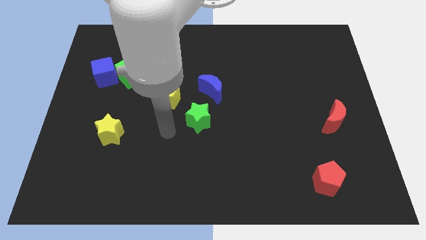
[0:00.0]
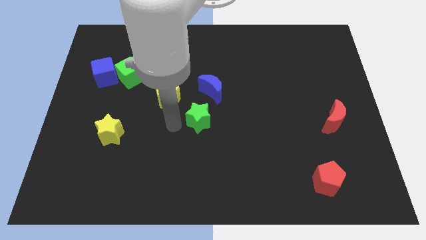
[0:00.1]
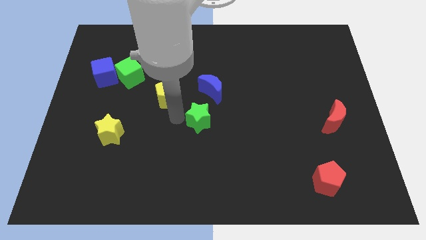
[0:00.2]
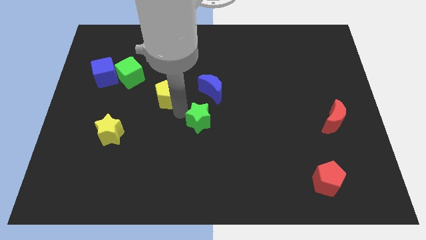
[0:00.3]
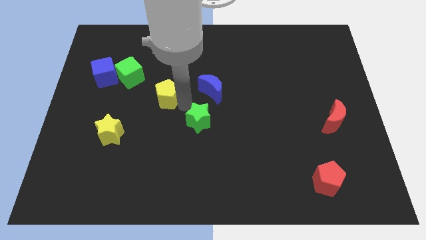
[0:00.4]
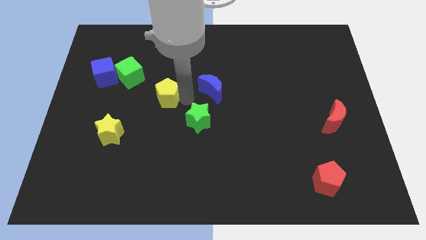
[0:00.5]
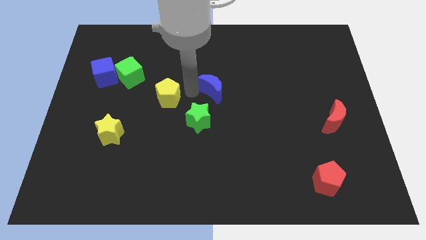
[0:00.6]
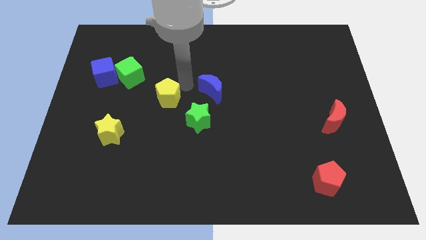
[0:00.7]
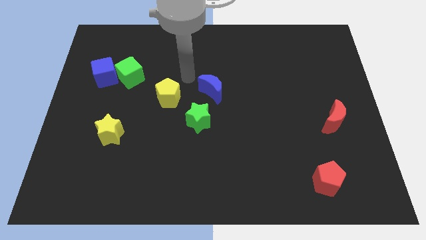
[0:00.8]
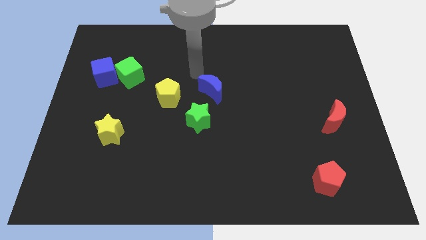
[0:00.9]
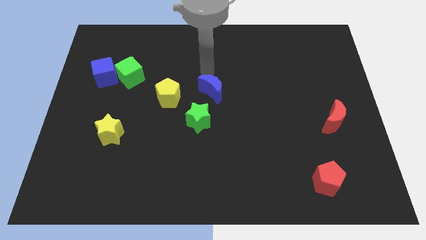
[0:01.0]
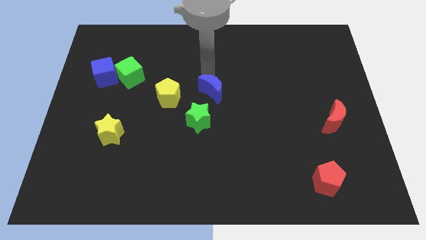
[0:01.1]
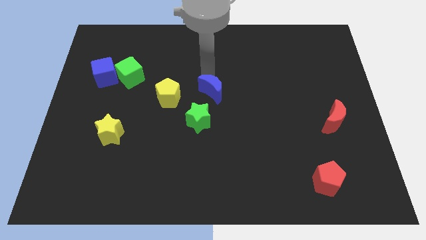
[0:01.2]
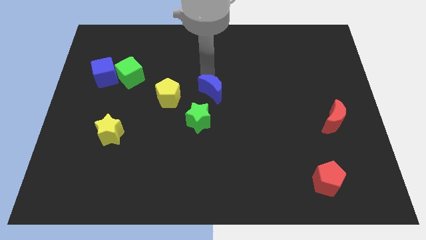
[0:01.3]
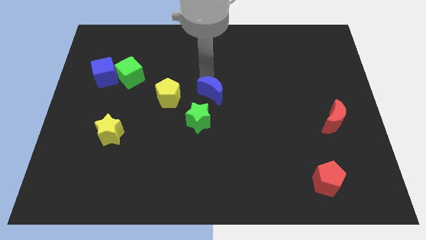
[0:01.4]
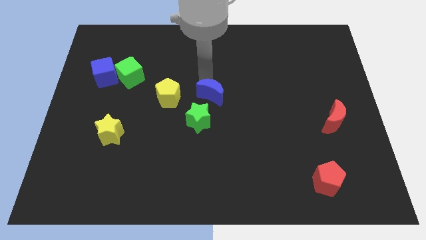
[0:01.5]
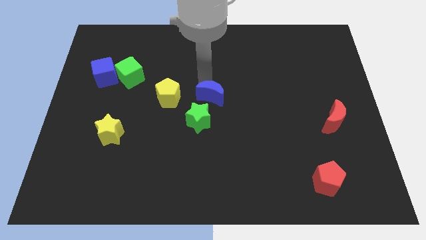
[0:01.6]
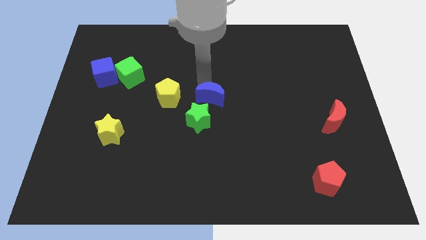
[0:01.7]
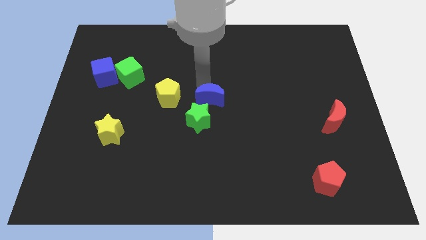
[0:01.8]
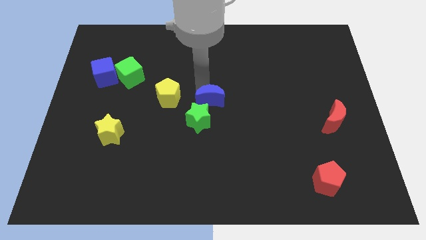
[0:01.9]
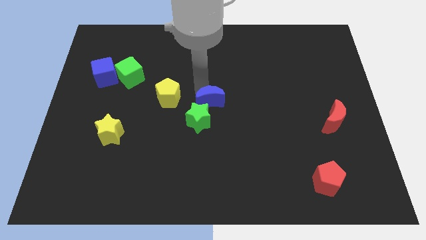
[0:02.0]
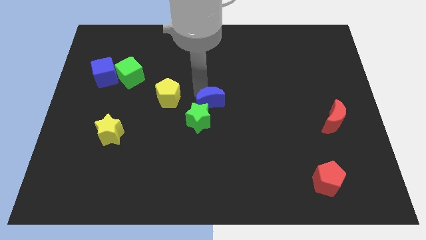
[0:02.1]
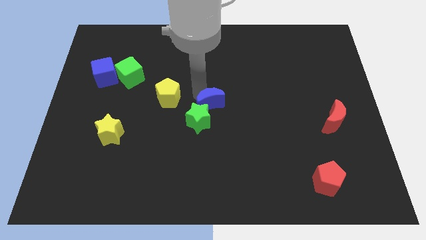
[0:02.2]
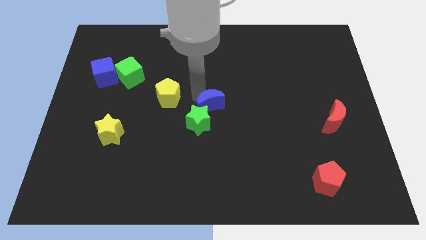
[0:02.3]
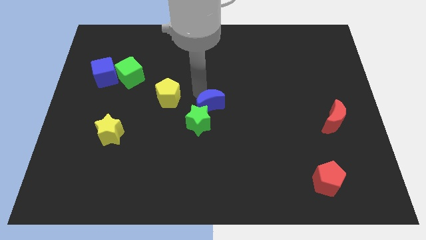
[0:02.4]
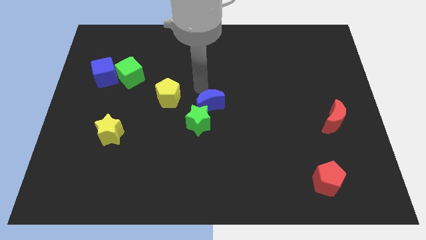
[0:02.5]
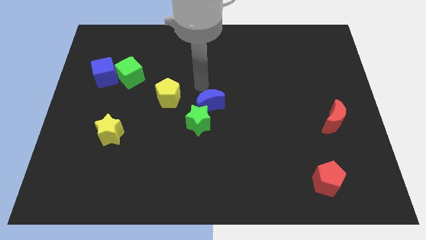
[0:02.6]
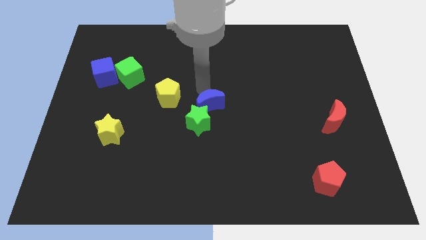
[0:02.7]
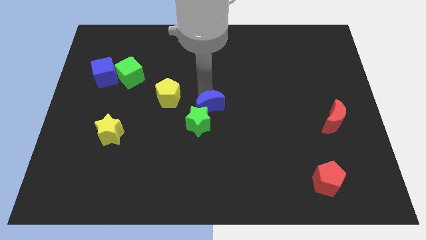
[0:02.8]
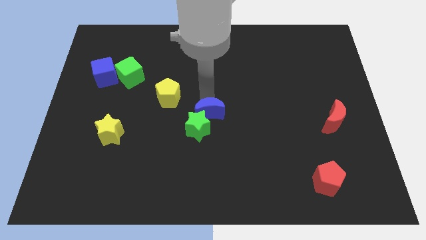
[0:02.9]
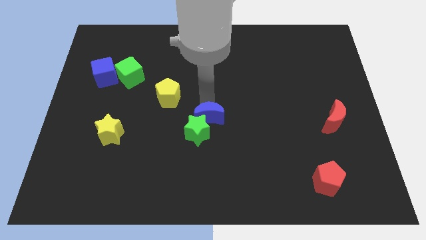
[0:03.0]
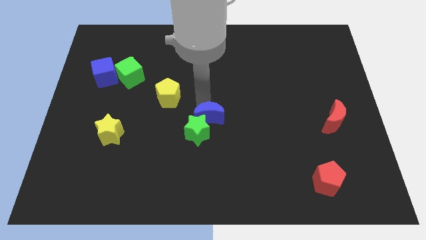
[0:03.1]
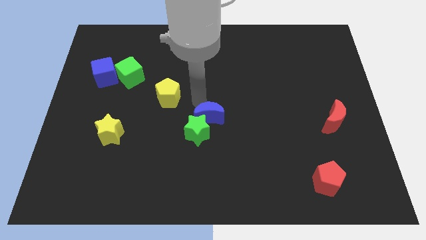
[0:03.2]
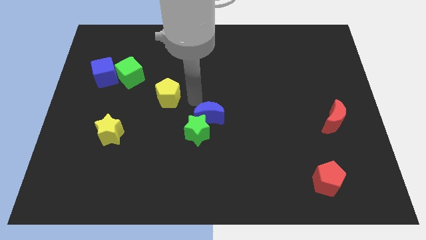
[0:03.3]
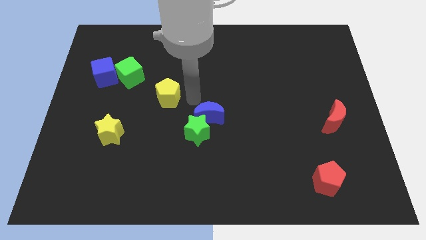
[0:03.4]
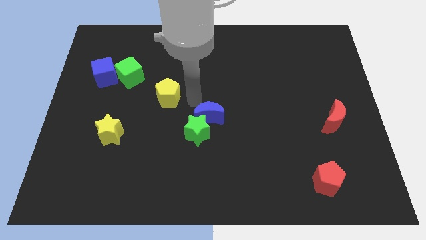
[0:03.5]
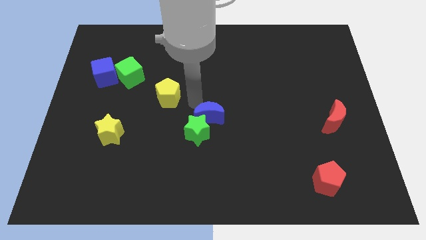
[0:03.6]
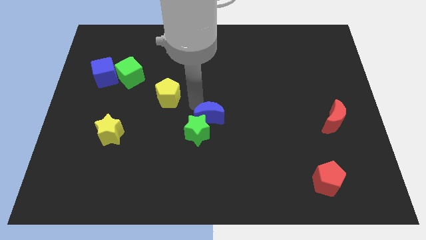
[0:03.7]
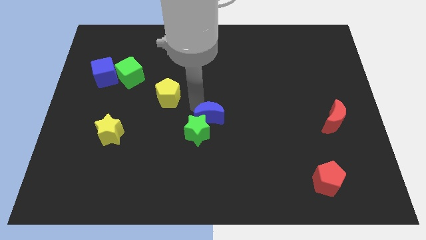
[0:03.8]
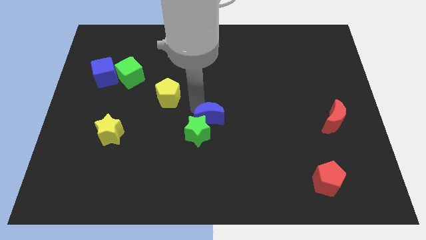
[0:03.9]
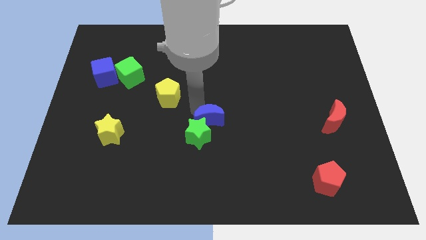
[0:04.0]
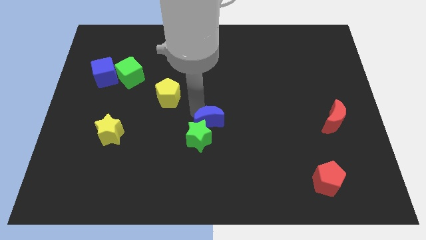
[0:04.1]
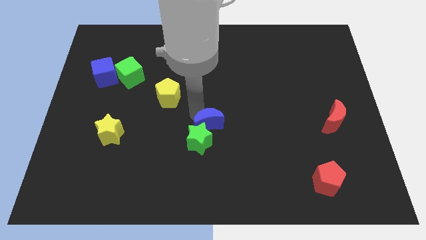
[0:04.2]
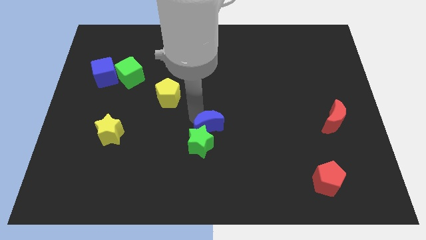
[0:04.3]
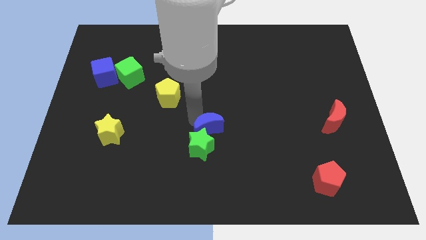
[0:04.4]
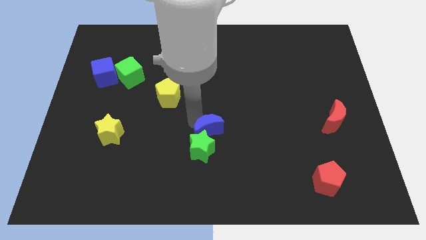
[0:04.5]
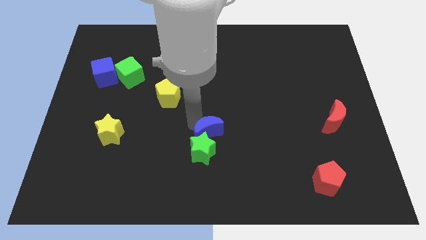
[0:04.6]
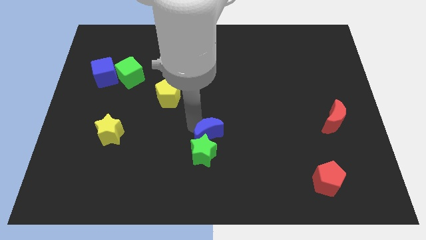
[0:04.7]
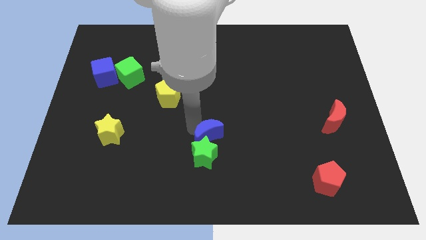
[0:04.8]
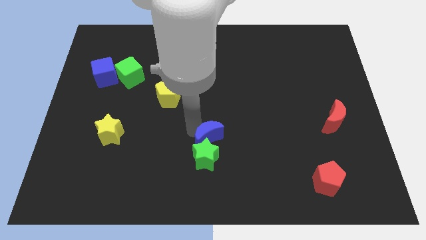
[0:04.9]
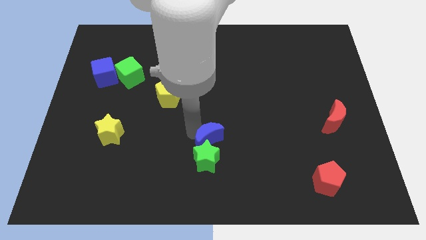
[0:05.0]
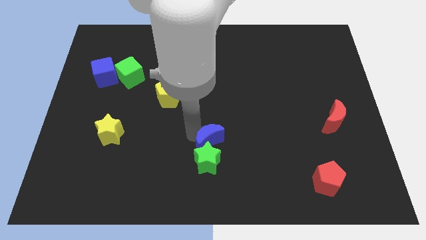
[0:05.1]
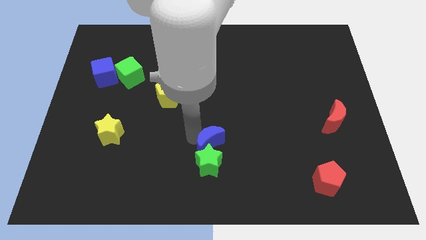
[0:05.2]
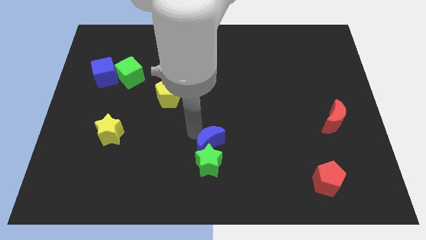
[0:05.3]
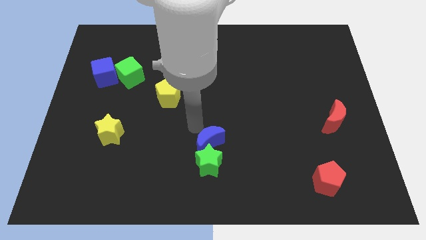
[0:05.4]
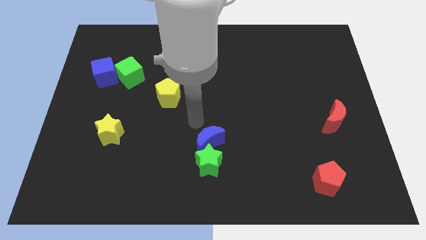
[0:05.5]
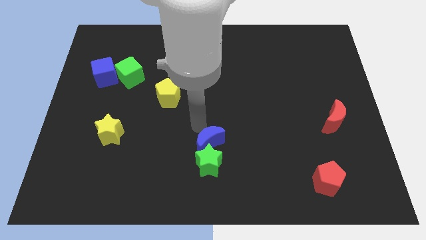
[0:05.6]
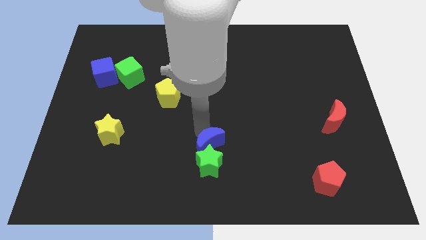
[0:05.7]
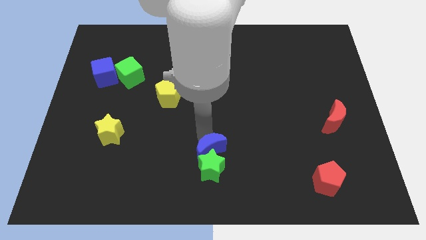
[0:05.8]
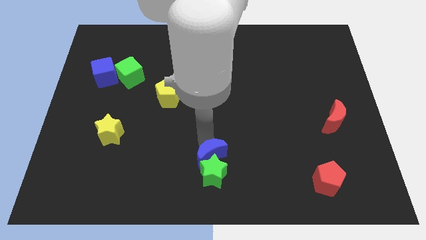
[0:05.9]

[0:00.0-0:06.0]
slide the blue moon to the bottom side

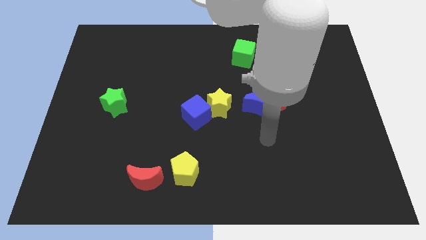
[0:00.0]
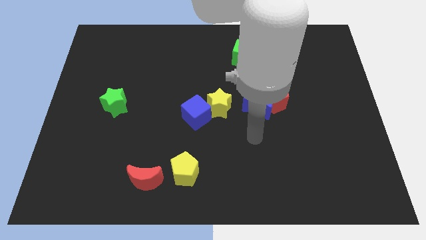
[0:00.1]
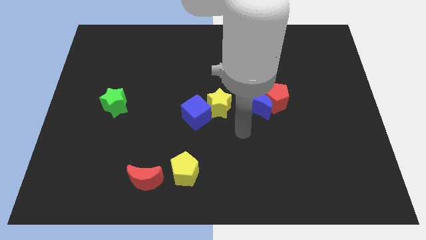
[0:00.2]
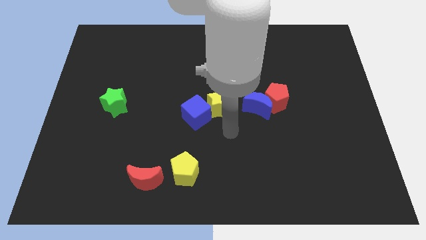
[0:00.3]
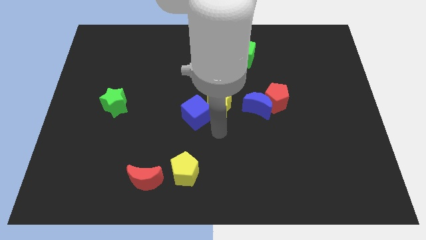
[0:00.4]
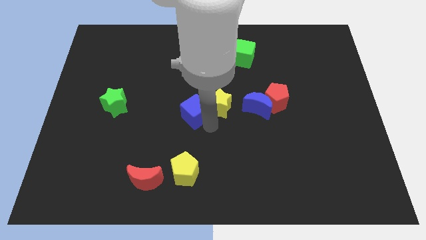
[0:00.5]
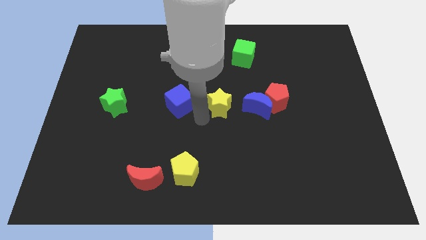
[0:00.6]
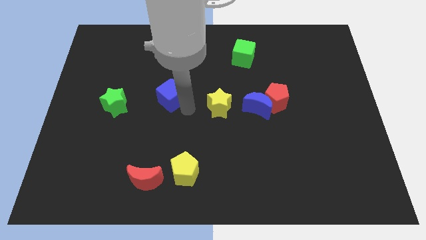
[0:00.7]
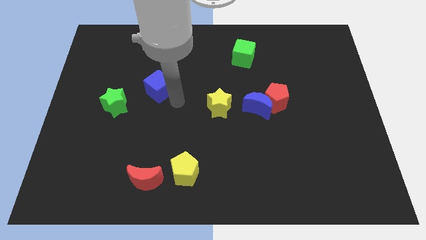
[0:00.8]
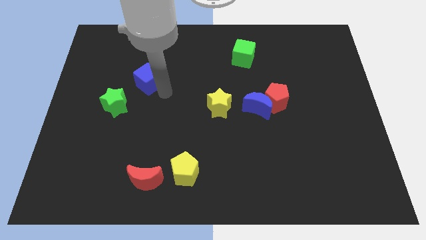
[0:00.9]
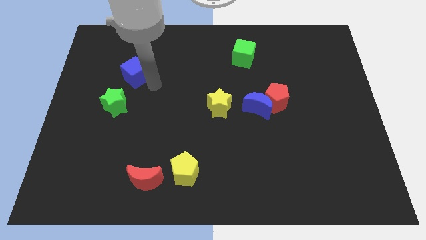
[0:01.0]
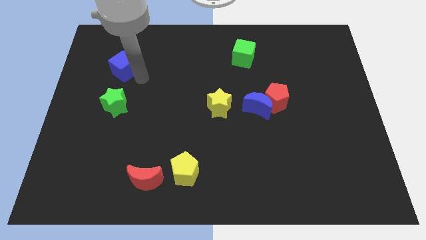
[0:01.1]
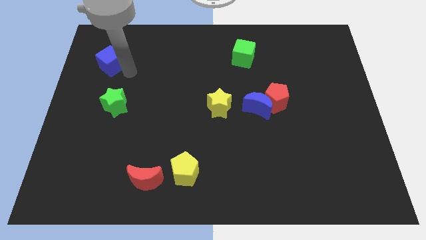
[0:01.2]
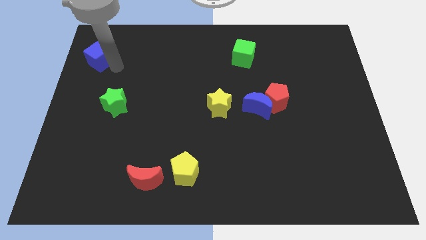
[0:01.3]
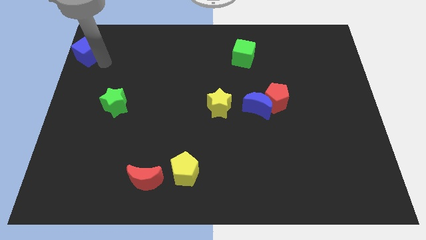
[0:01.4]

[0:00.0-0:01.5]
put the blue cube to the top left
